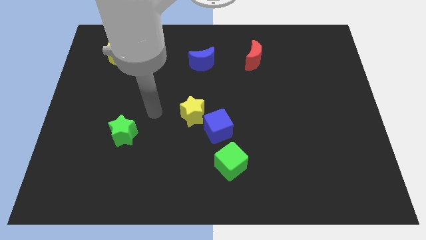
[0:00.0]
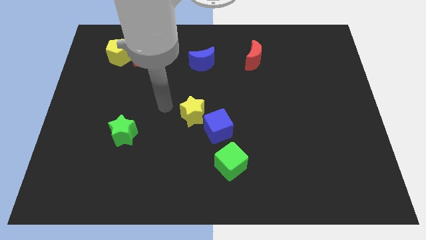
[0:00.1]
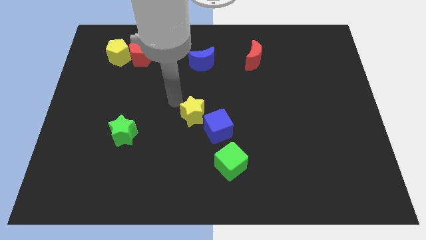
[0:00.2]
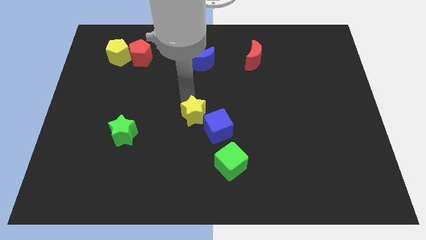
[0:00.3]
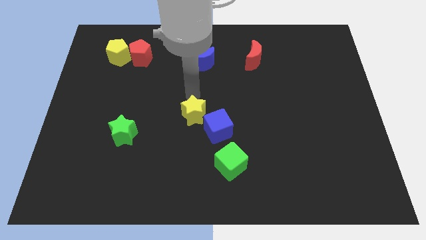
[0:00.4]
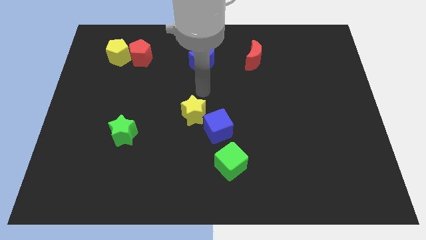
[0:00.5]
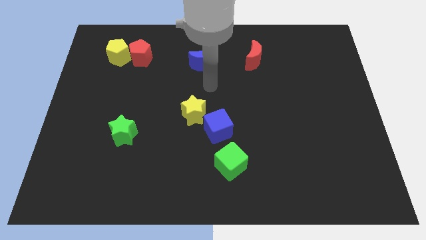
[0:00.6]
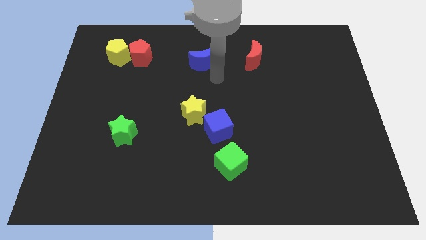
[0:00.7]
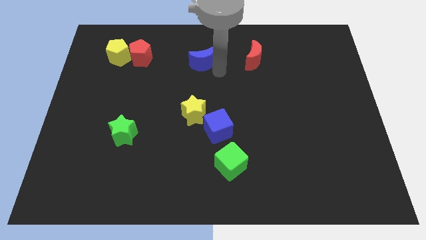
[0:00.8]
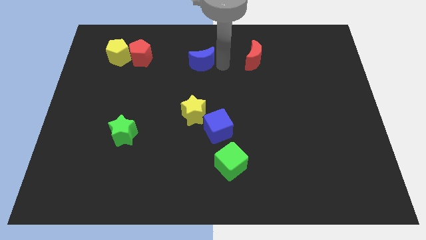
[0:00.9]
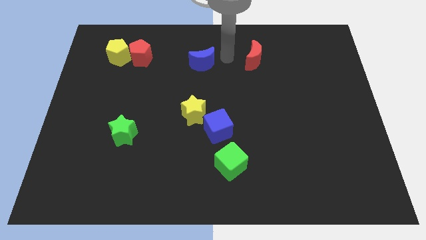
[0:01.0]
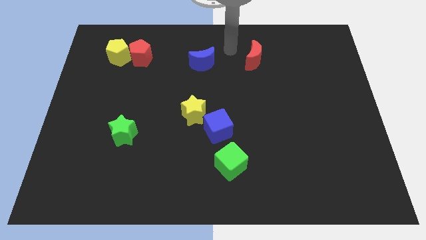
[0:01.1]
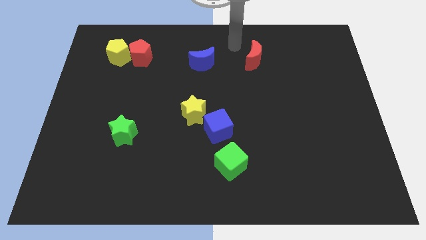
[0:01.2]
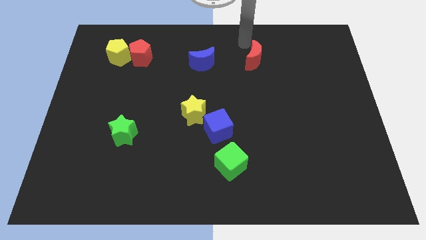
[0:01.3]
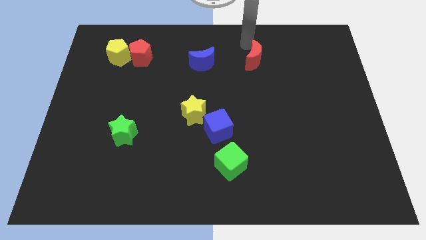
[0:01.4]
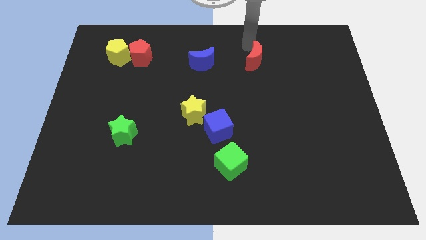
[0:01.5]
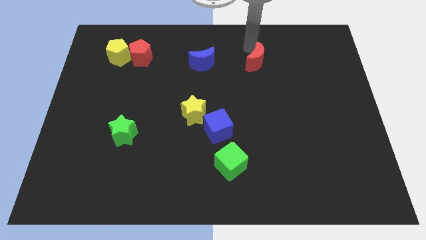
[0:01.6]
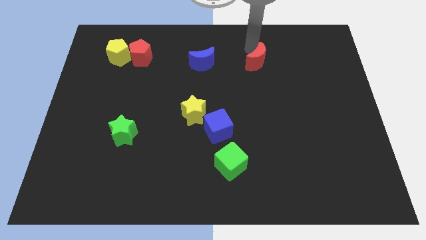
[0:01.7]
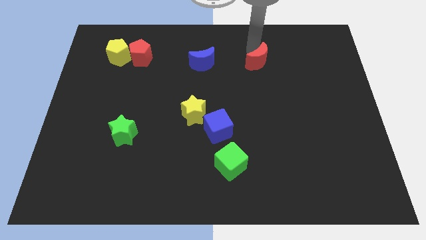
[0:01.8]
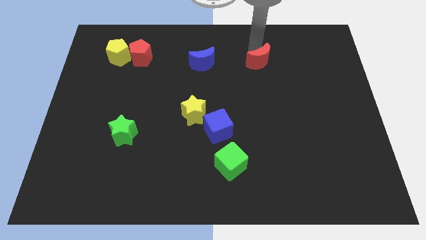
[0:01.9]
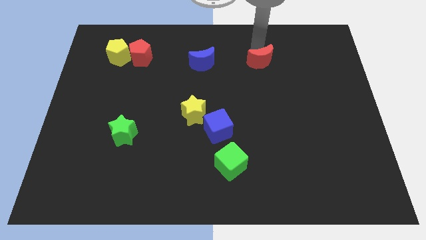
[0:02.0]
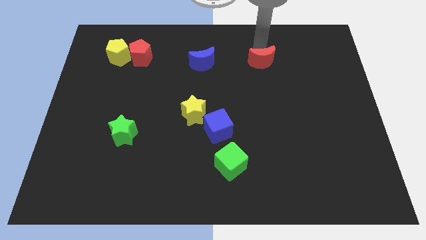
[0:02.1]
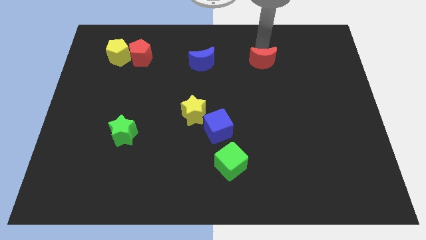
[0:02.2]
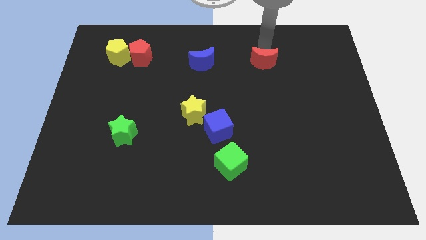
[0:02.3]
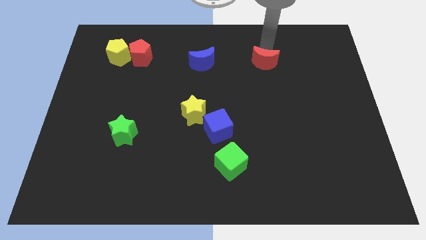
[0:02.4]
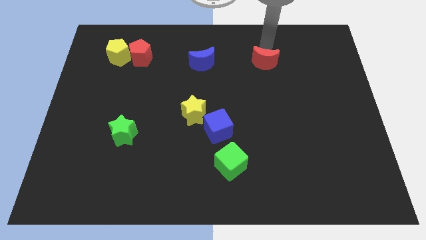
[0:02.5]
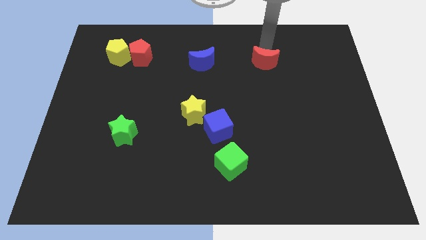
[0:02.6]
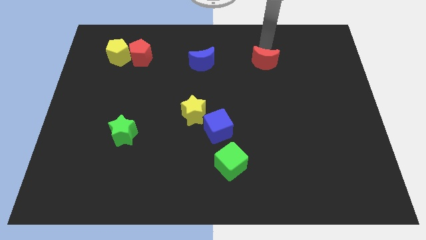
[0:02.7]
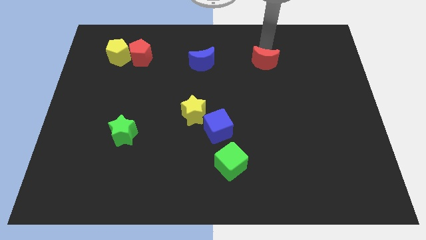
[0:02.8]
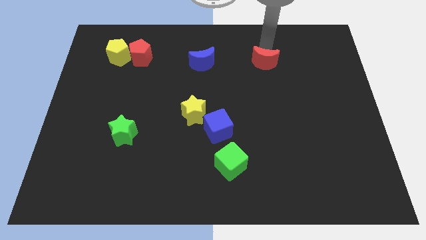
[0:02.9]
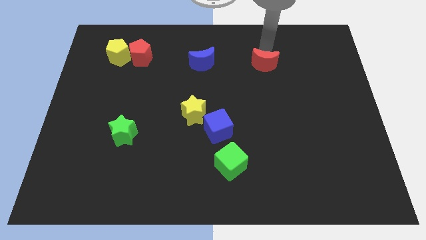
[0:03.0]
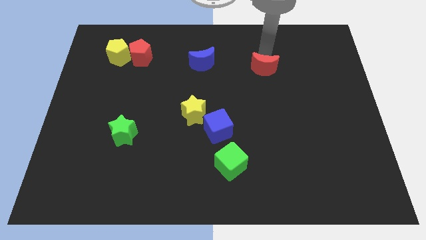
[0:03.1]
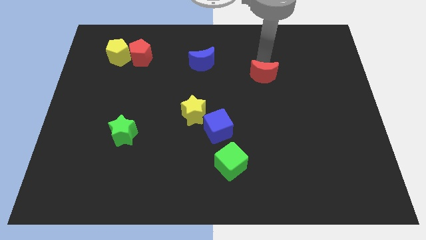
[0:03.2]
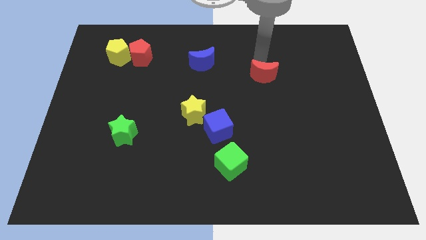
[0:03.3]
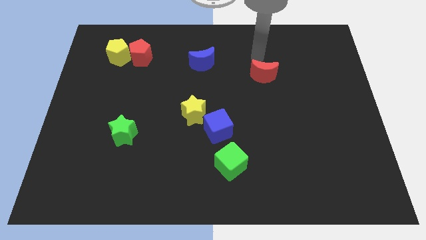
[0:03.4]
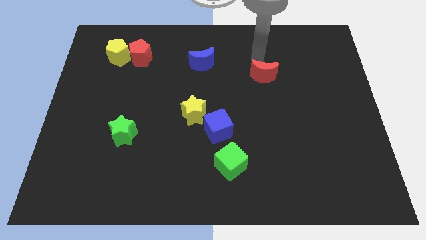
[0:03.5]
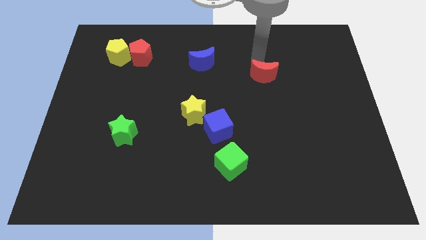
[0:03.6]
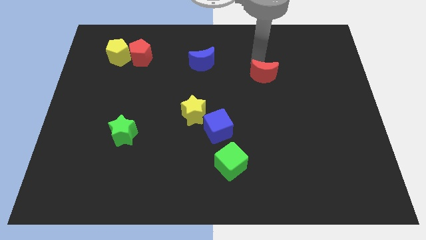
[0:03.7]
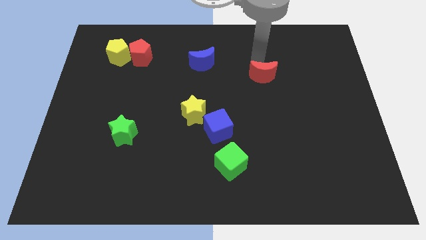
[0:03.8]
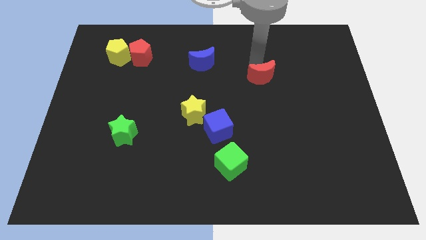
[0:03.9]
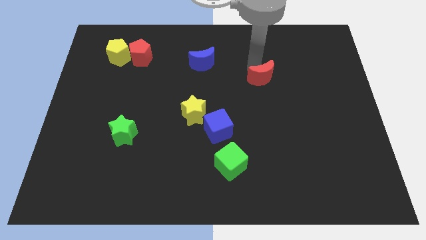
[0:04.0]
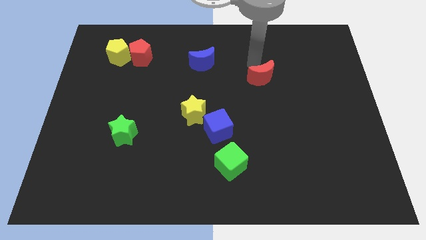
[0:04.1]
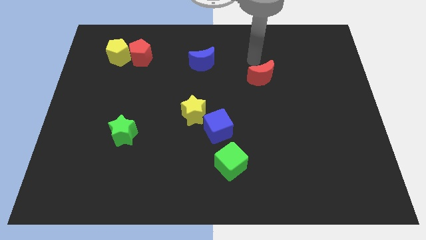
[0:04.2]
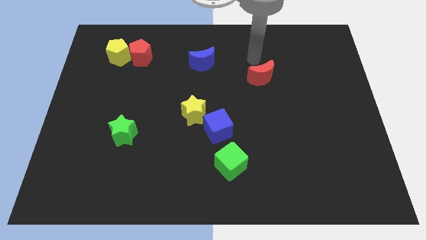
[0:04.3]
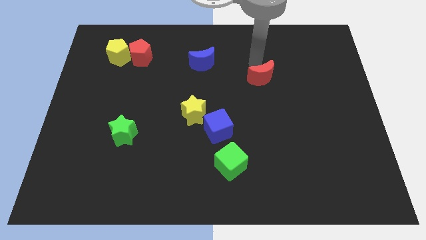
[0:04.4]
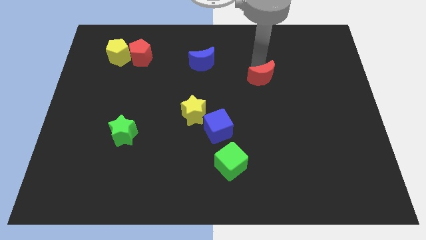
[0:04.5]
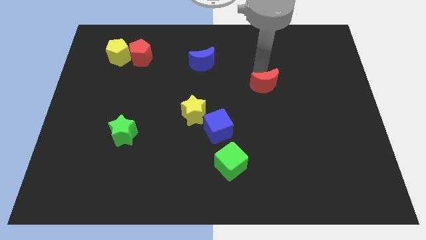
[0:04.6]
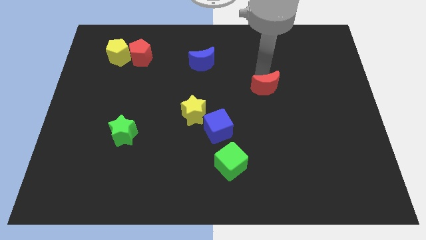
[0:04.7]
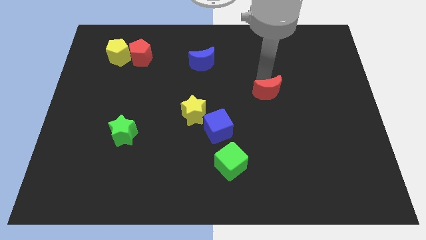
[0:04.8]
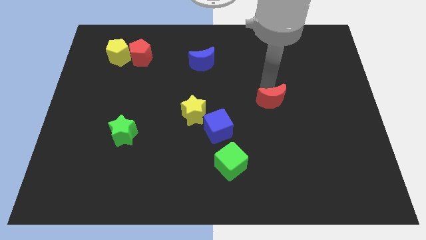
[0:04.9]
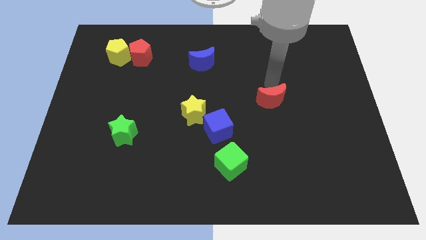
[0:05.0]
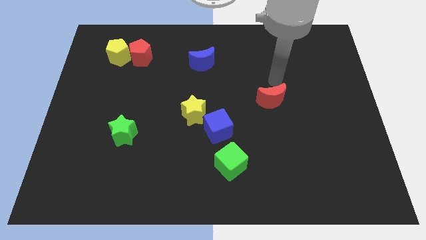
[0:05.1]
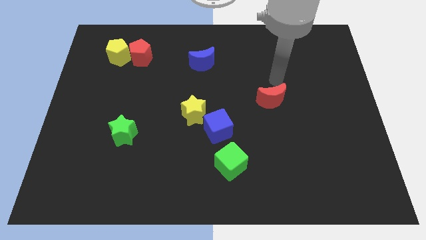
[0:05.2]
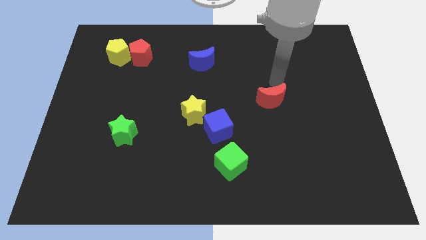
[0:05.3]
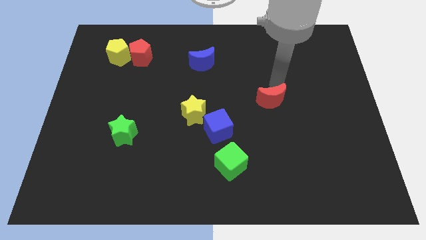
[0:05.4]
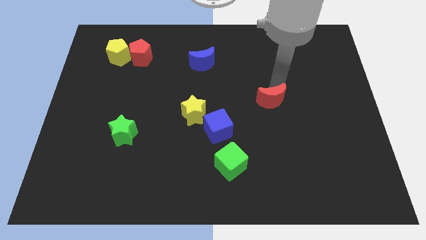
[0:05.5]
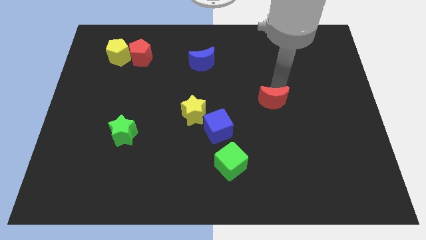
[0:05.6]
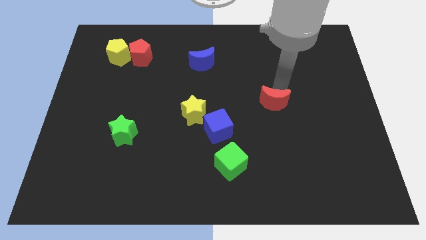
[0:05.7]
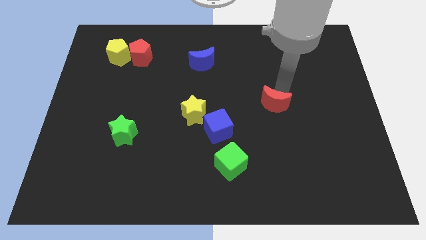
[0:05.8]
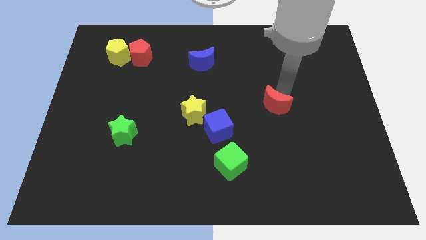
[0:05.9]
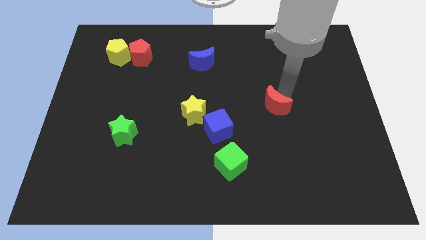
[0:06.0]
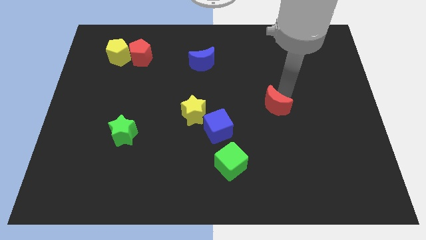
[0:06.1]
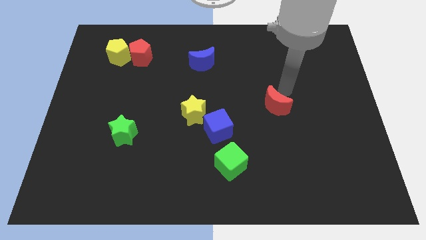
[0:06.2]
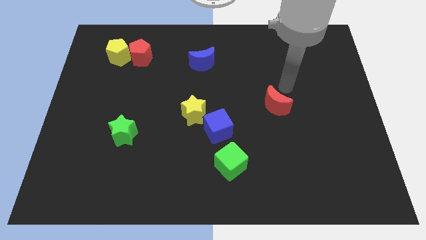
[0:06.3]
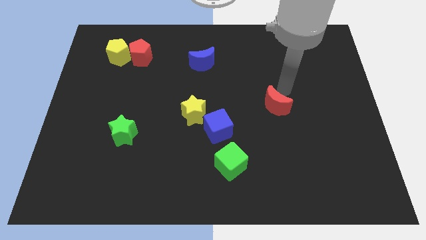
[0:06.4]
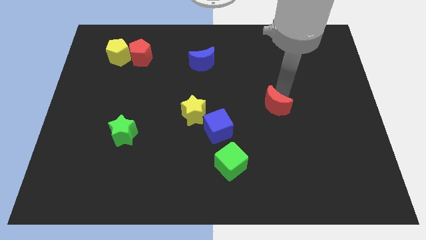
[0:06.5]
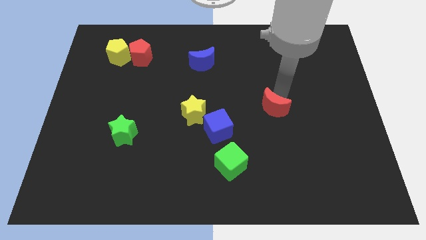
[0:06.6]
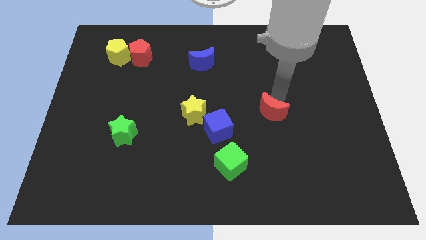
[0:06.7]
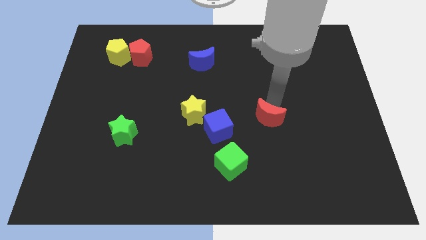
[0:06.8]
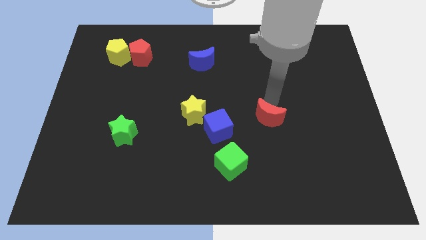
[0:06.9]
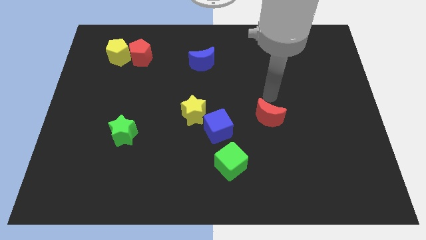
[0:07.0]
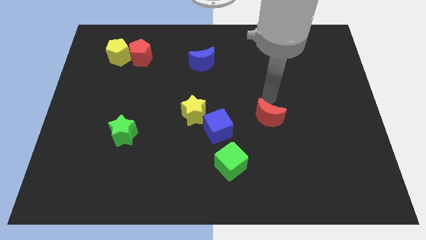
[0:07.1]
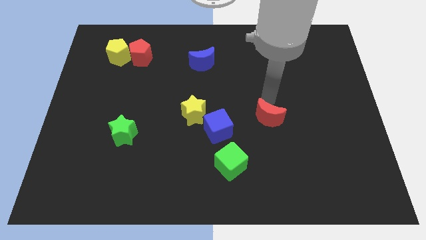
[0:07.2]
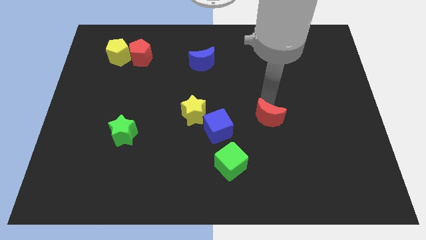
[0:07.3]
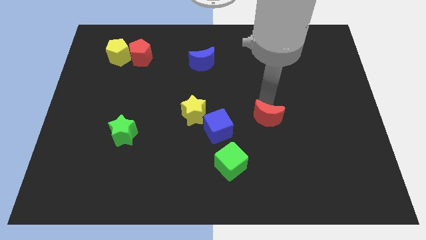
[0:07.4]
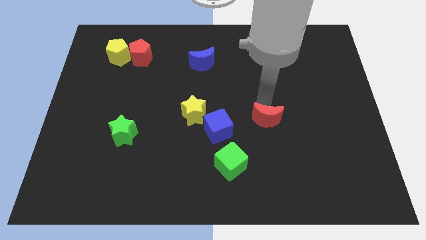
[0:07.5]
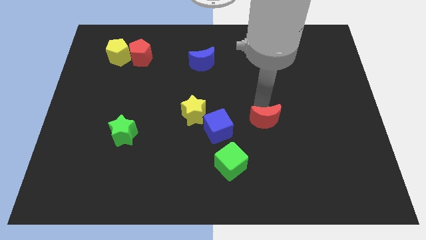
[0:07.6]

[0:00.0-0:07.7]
slide the red moon downwards

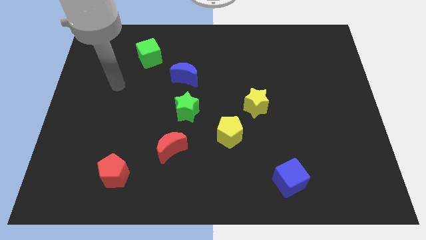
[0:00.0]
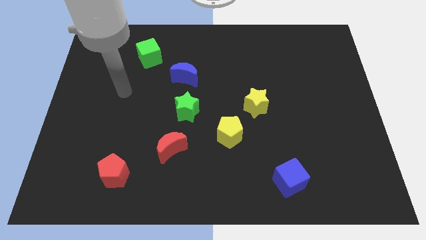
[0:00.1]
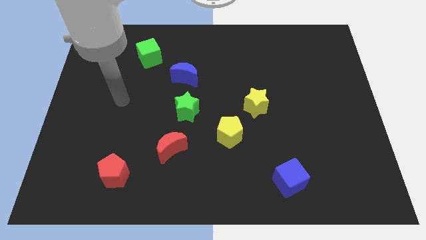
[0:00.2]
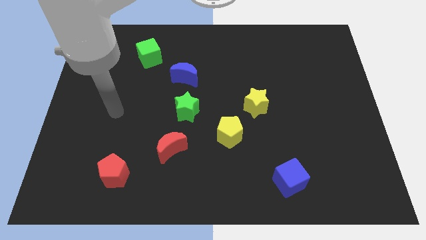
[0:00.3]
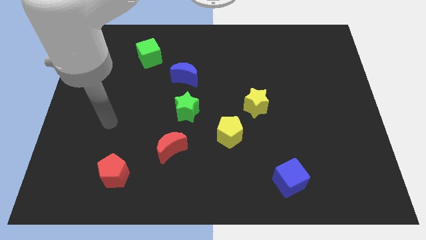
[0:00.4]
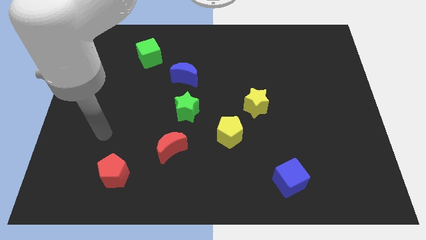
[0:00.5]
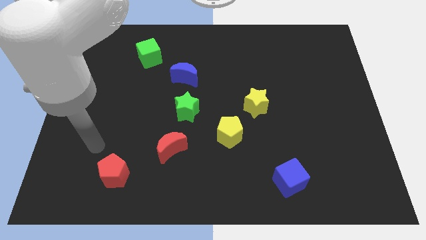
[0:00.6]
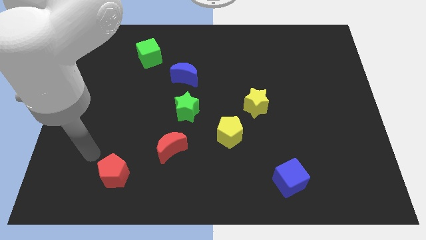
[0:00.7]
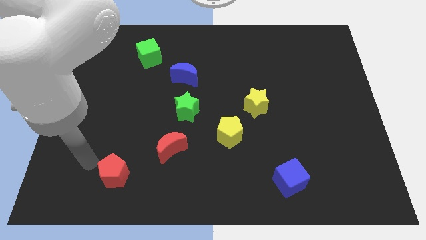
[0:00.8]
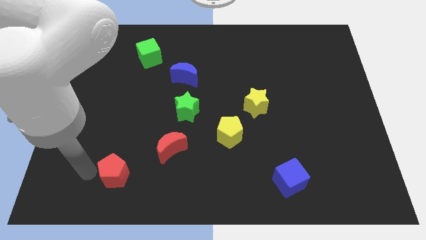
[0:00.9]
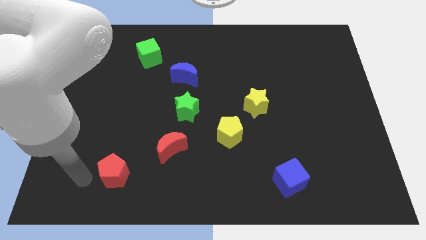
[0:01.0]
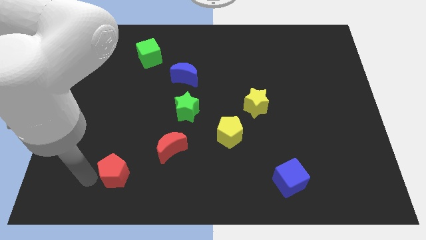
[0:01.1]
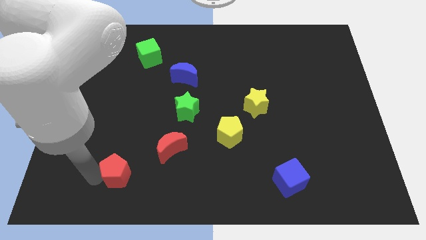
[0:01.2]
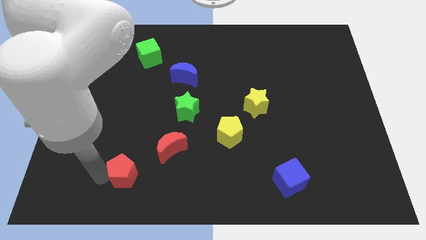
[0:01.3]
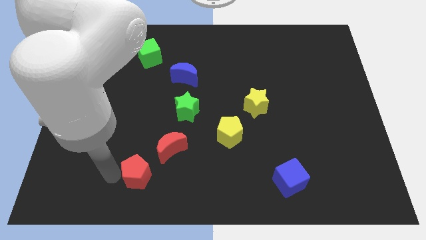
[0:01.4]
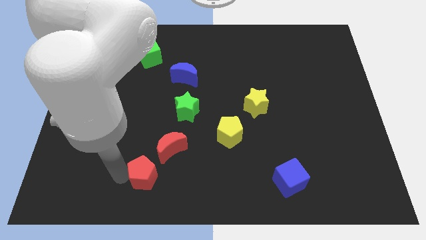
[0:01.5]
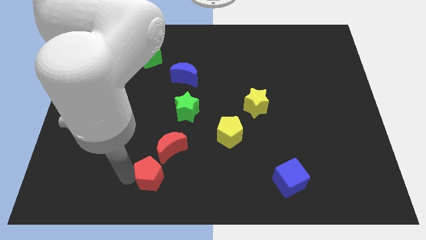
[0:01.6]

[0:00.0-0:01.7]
push the red pentagon a little to the right
